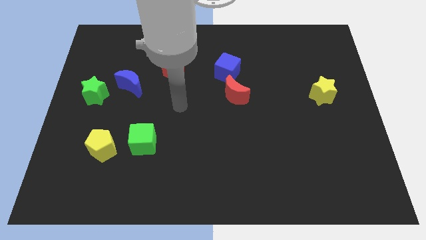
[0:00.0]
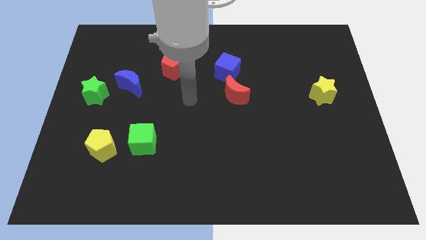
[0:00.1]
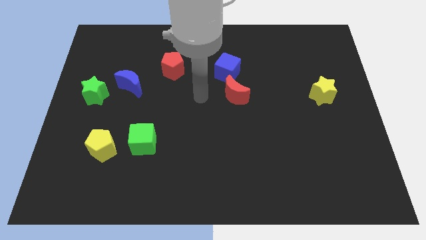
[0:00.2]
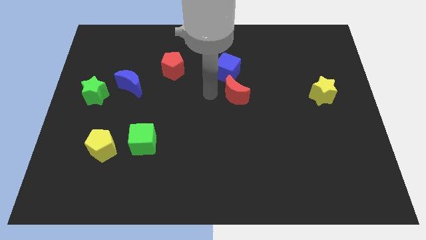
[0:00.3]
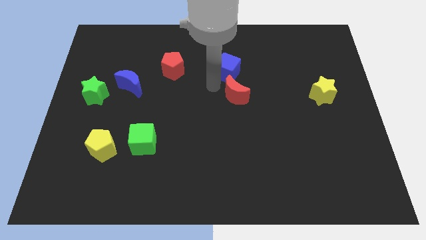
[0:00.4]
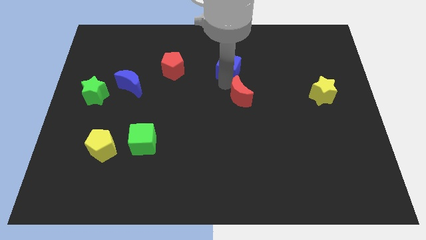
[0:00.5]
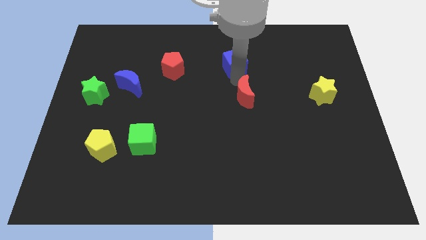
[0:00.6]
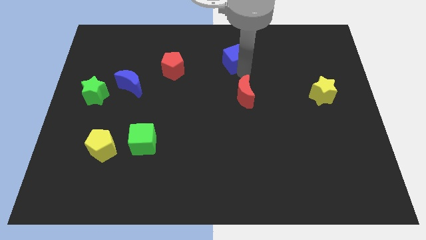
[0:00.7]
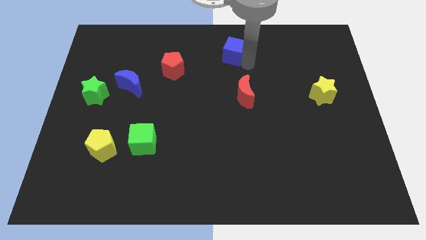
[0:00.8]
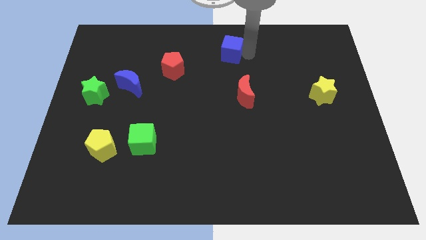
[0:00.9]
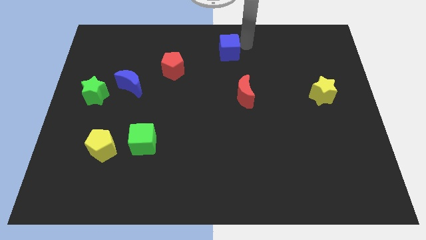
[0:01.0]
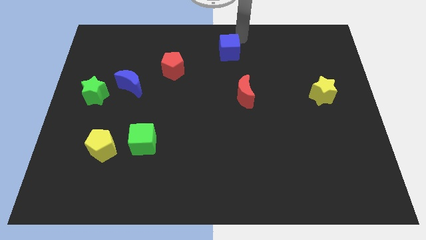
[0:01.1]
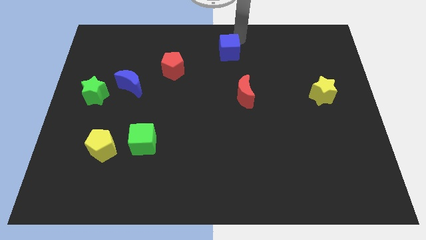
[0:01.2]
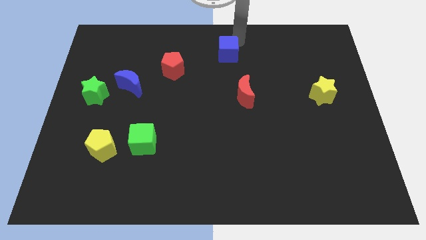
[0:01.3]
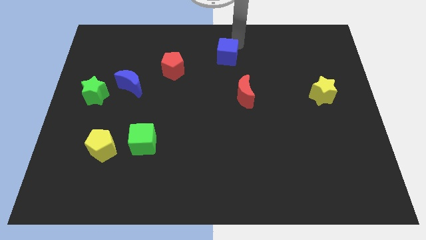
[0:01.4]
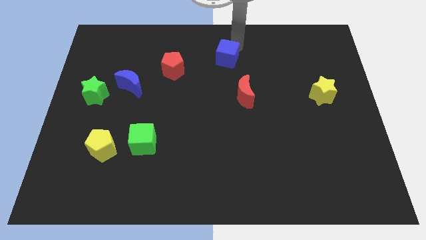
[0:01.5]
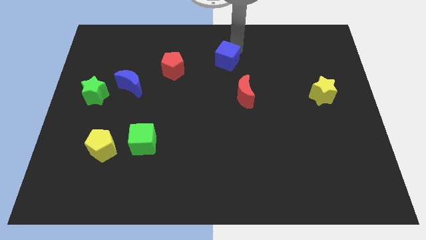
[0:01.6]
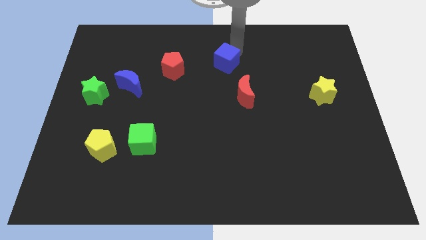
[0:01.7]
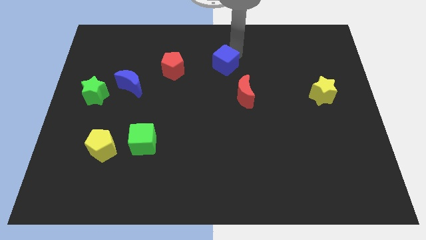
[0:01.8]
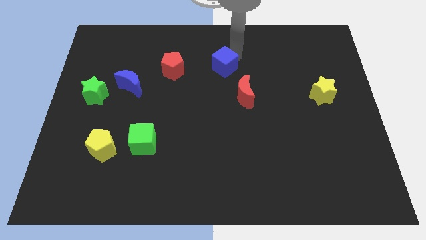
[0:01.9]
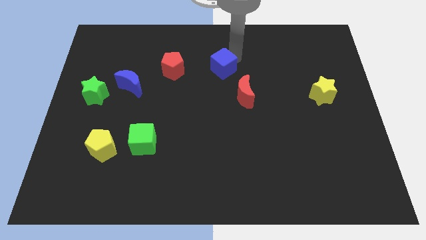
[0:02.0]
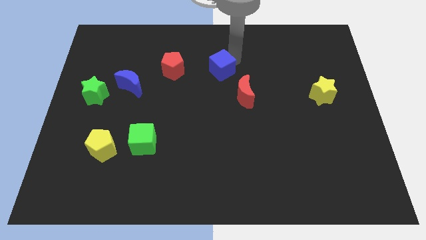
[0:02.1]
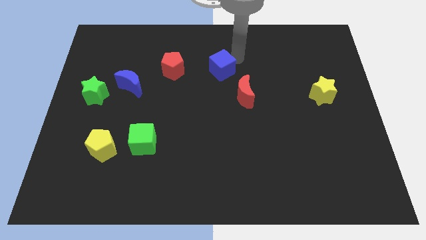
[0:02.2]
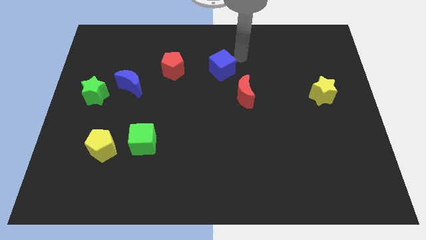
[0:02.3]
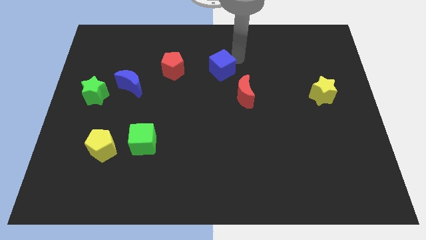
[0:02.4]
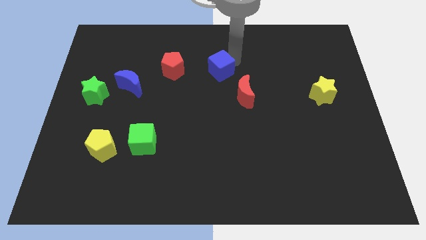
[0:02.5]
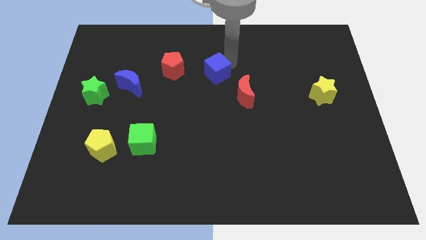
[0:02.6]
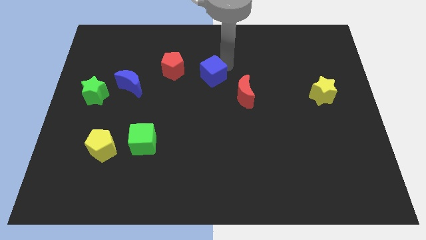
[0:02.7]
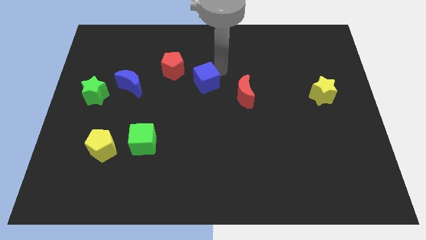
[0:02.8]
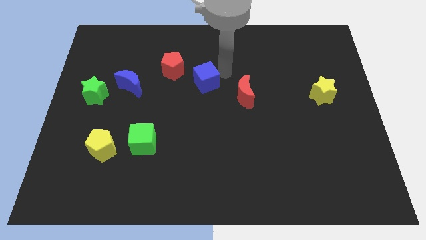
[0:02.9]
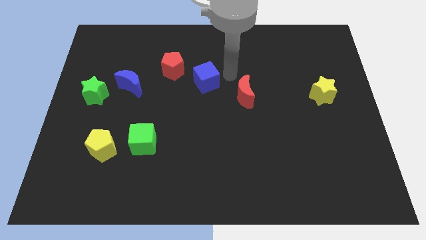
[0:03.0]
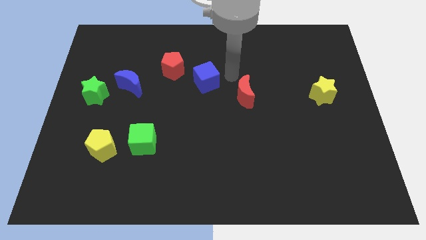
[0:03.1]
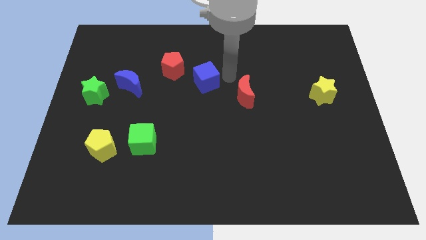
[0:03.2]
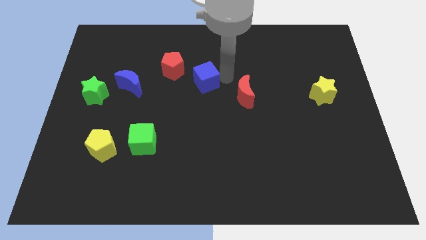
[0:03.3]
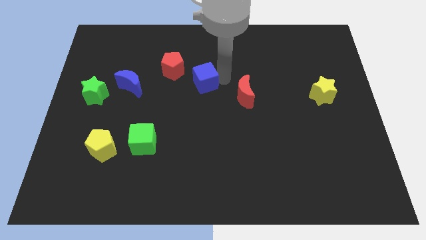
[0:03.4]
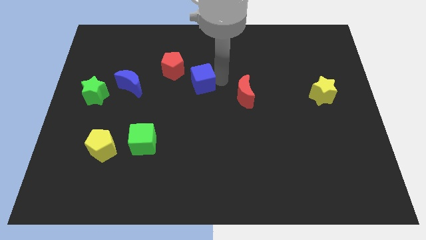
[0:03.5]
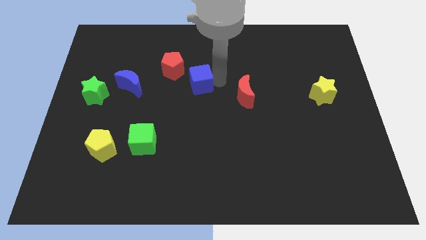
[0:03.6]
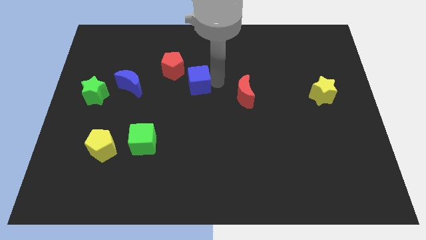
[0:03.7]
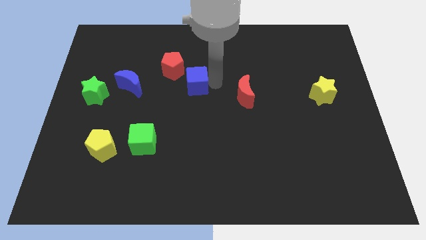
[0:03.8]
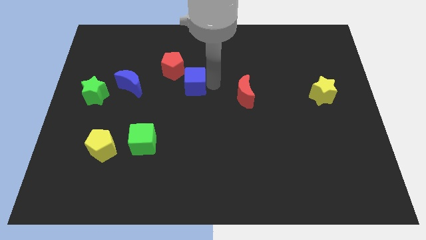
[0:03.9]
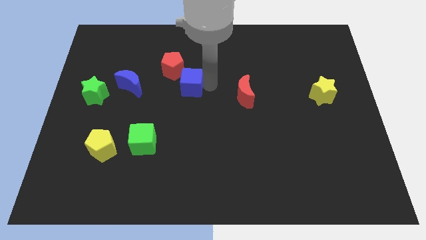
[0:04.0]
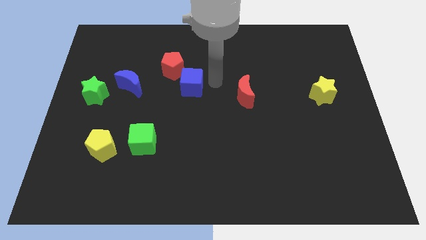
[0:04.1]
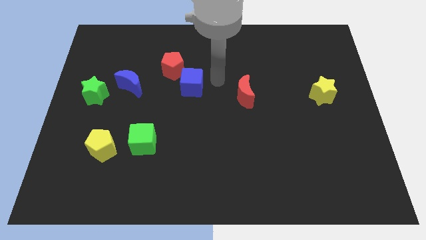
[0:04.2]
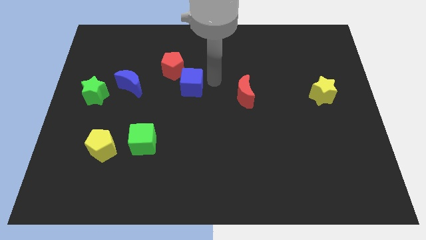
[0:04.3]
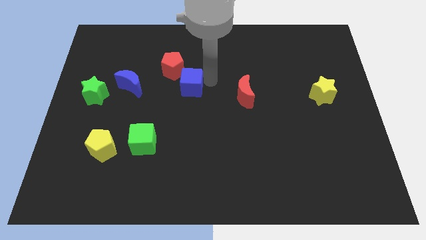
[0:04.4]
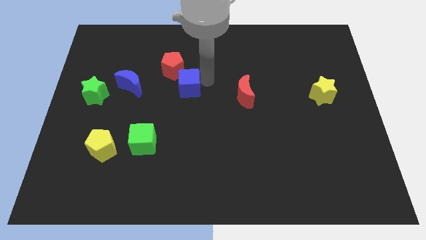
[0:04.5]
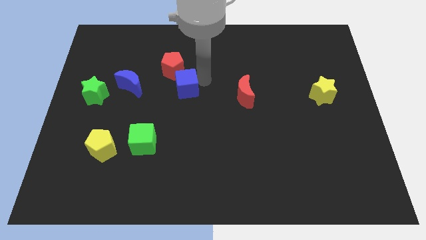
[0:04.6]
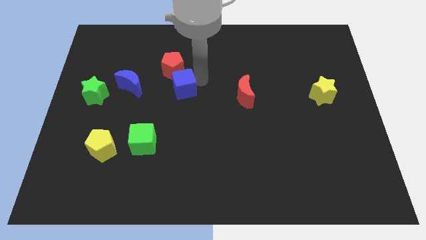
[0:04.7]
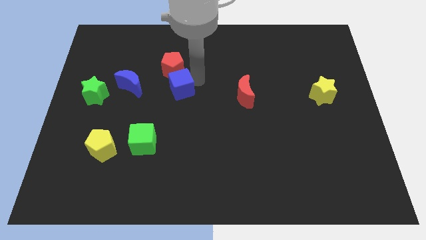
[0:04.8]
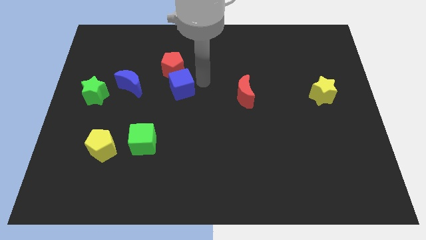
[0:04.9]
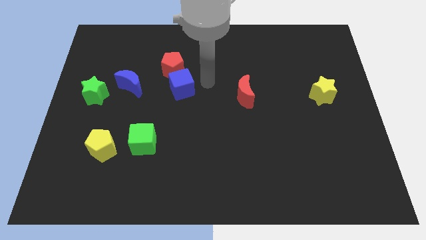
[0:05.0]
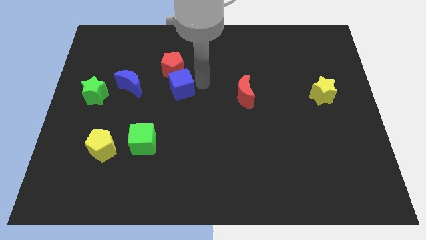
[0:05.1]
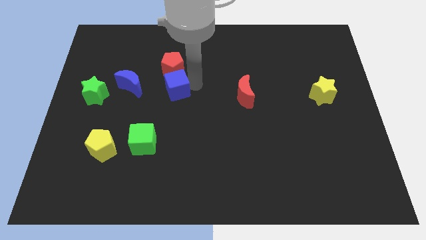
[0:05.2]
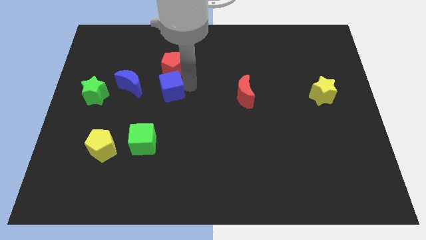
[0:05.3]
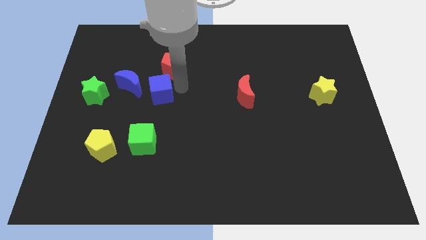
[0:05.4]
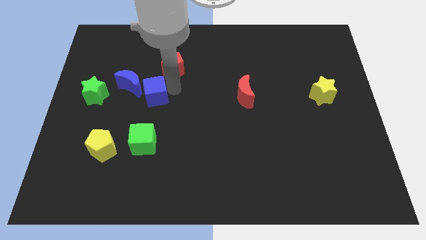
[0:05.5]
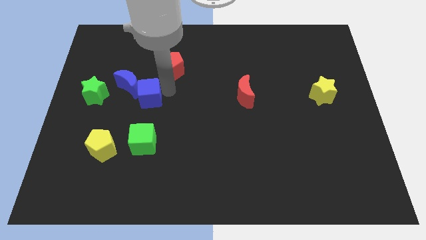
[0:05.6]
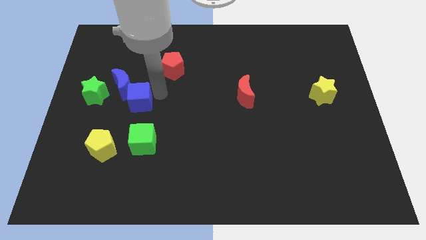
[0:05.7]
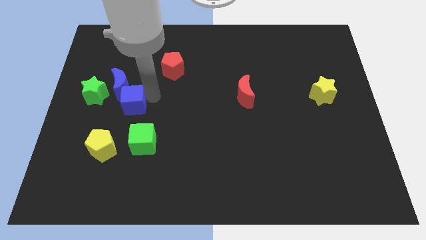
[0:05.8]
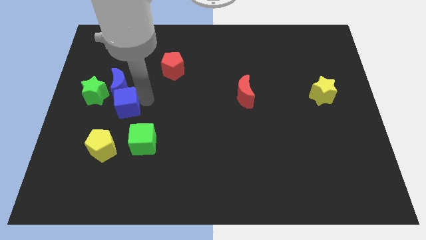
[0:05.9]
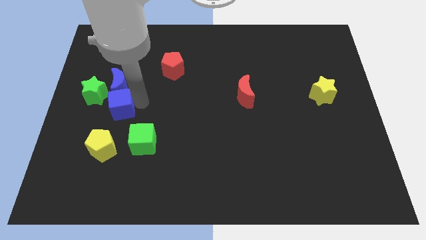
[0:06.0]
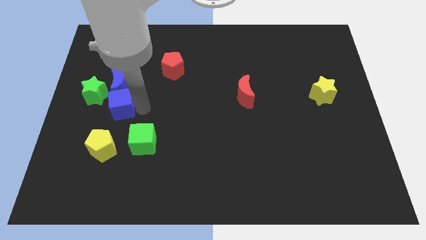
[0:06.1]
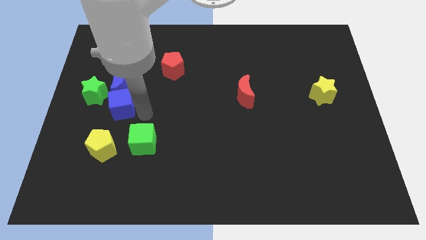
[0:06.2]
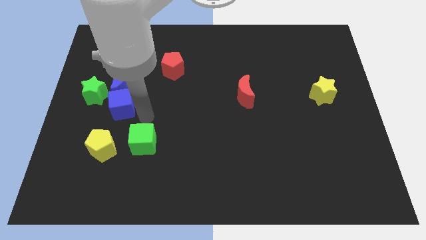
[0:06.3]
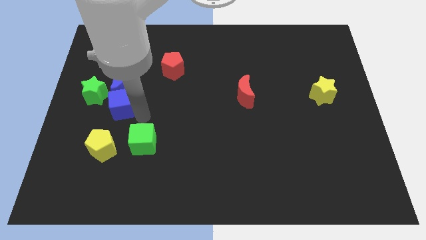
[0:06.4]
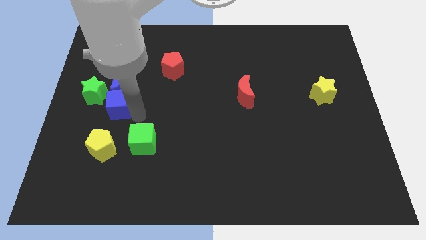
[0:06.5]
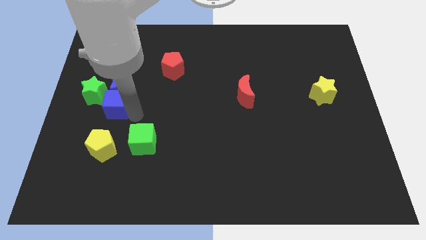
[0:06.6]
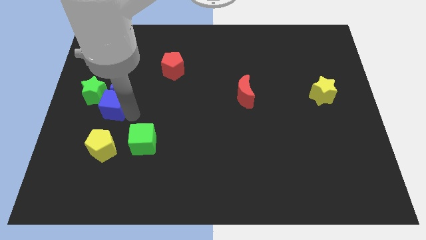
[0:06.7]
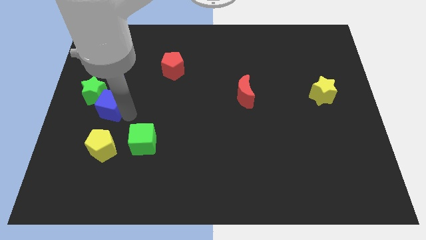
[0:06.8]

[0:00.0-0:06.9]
move the blue cube to the green star
